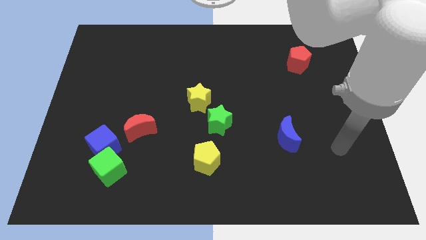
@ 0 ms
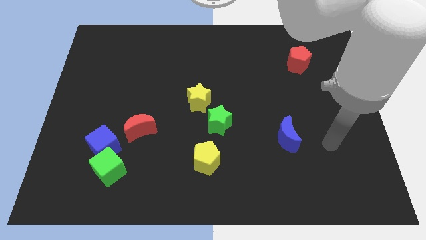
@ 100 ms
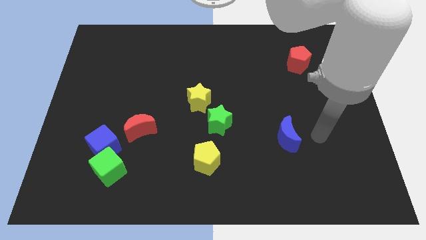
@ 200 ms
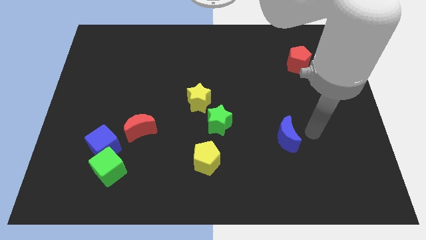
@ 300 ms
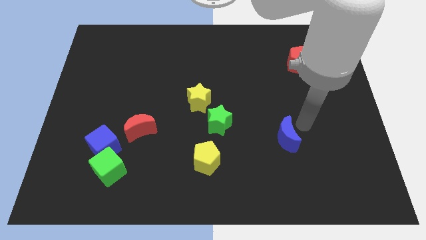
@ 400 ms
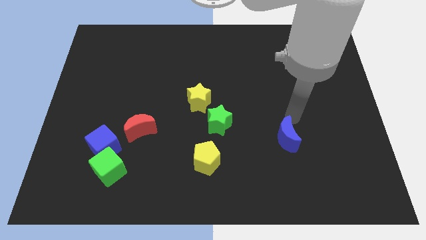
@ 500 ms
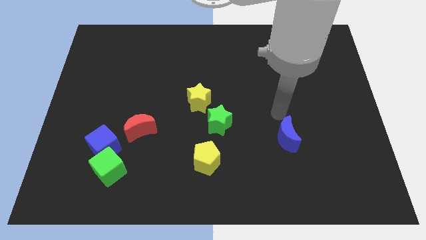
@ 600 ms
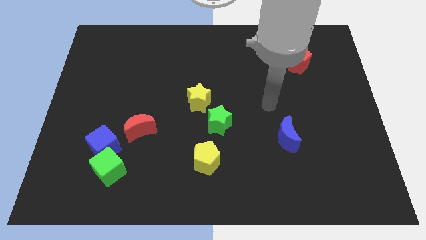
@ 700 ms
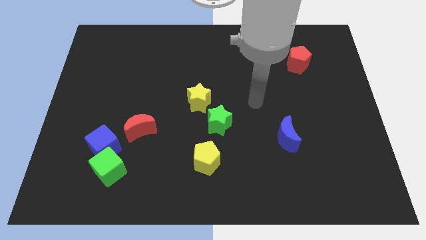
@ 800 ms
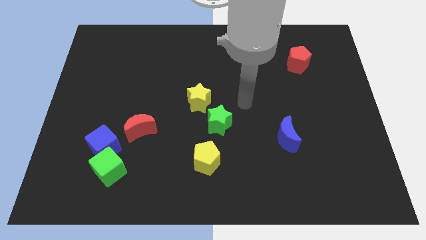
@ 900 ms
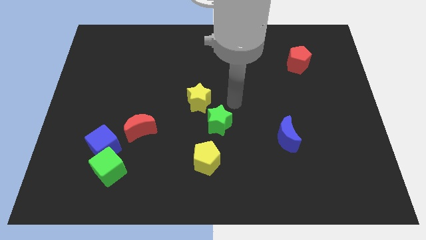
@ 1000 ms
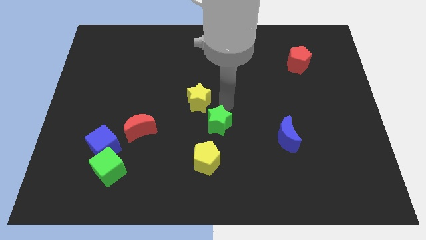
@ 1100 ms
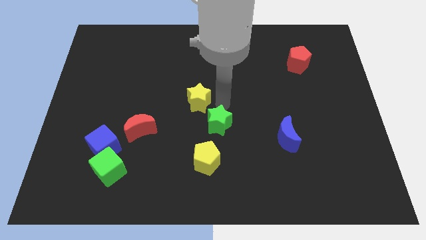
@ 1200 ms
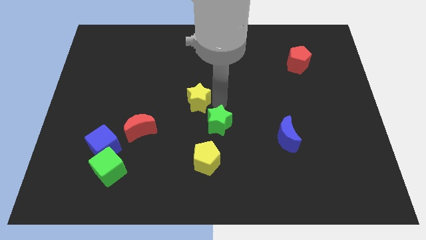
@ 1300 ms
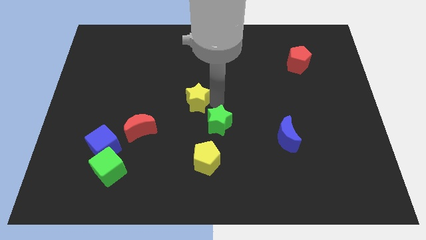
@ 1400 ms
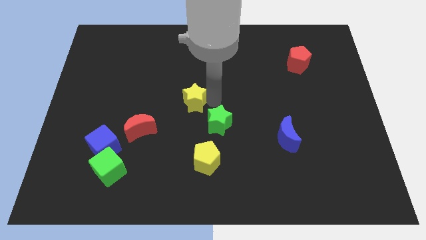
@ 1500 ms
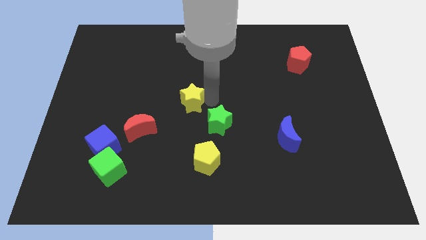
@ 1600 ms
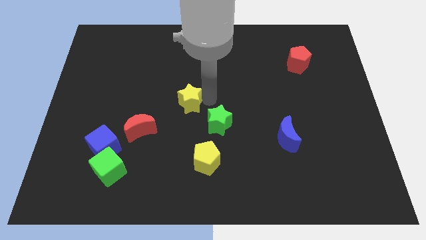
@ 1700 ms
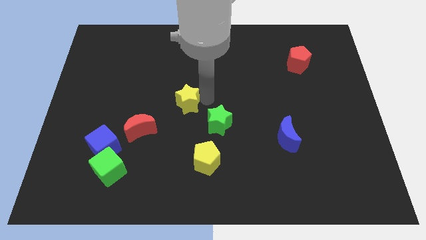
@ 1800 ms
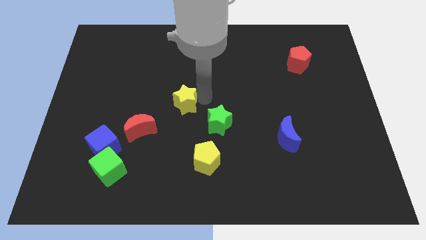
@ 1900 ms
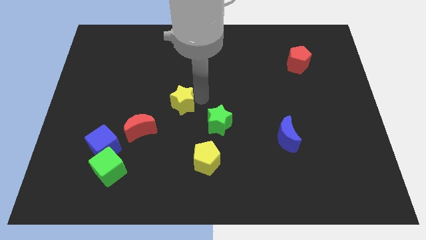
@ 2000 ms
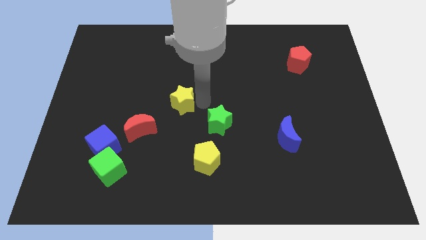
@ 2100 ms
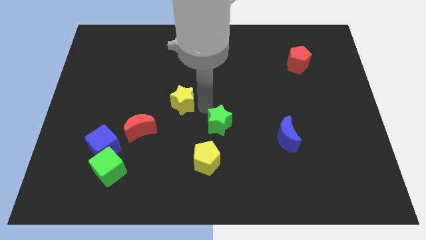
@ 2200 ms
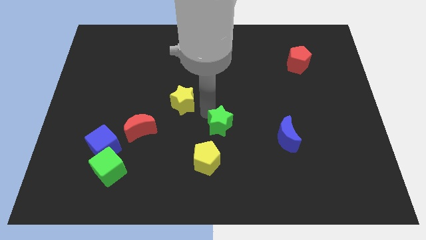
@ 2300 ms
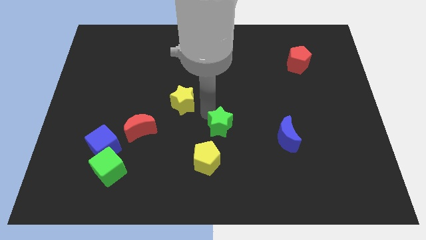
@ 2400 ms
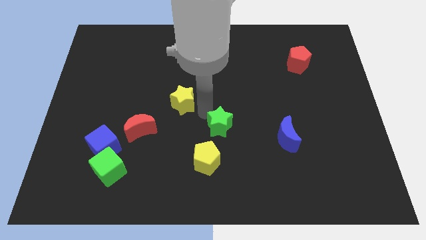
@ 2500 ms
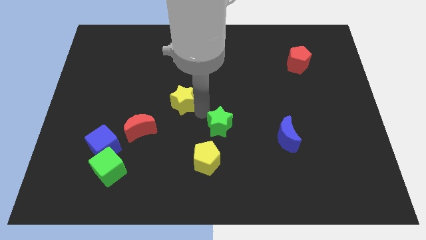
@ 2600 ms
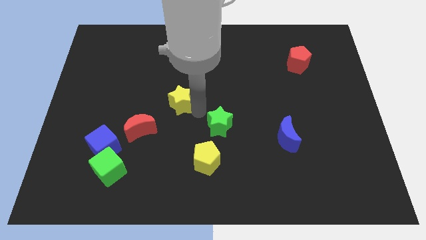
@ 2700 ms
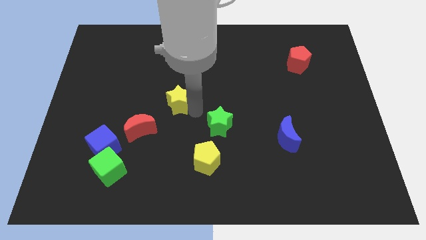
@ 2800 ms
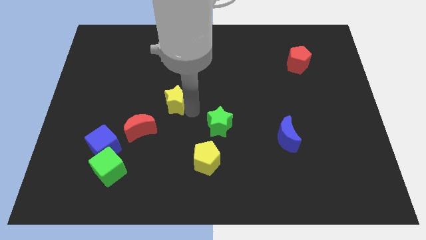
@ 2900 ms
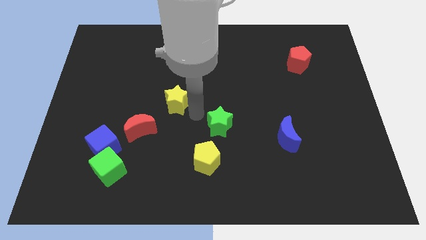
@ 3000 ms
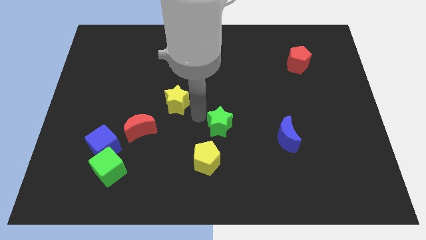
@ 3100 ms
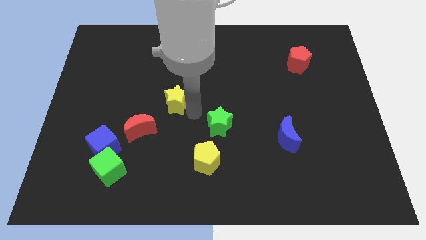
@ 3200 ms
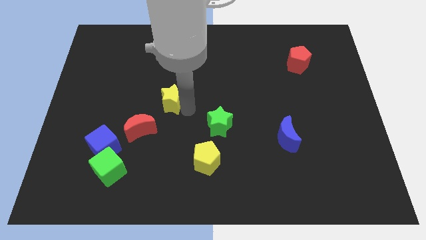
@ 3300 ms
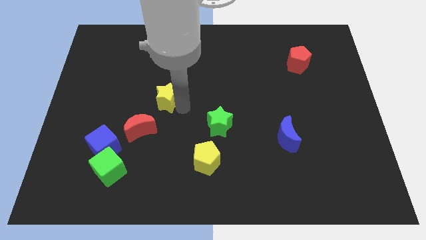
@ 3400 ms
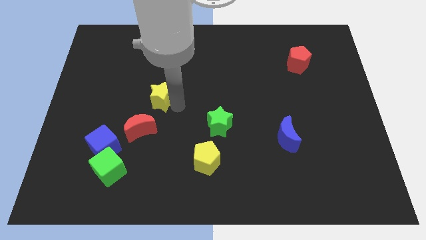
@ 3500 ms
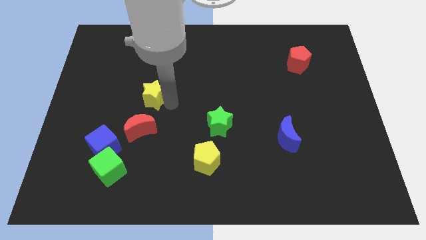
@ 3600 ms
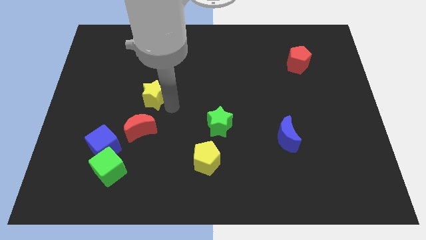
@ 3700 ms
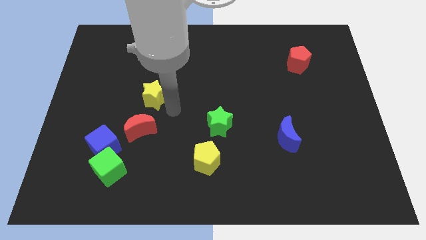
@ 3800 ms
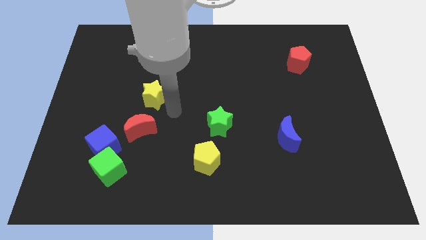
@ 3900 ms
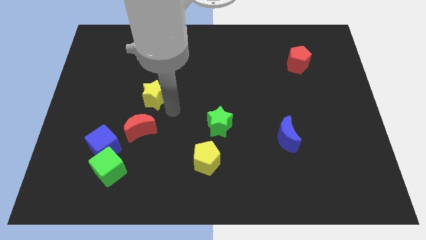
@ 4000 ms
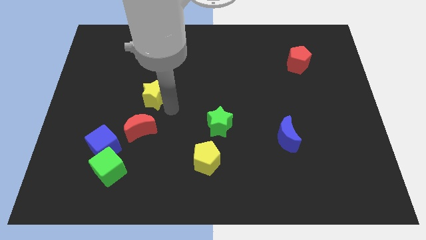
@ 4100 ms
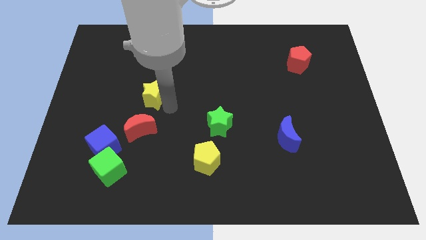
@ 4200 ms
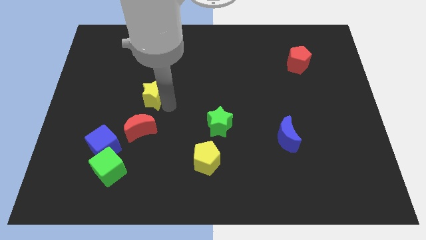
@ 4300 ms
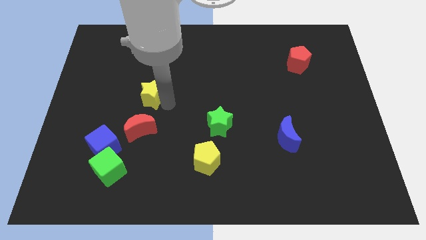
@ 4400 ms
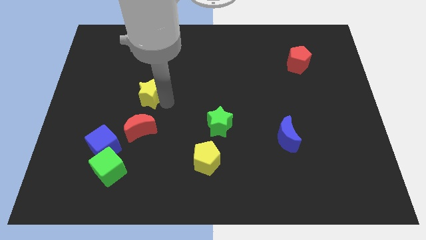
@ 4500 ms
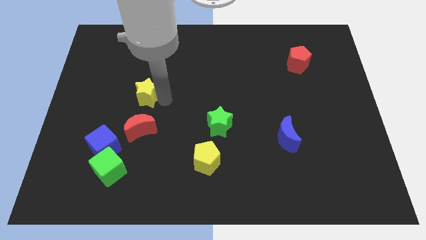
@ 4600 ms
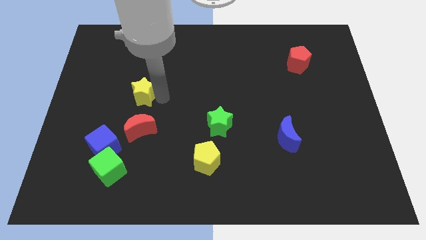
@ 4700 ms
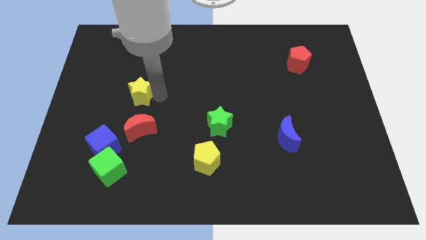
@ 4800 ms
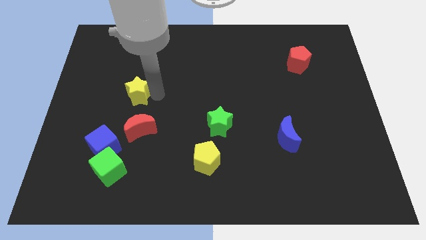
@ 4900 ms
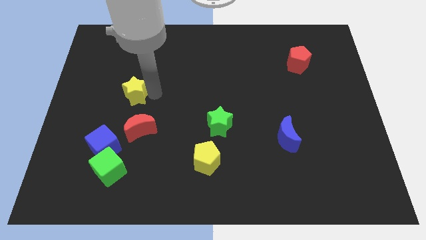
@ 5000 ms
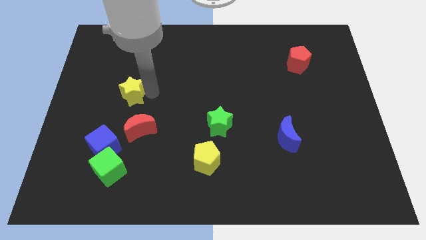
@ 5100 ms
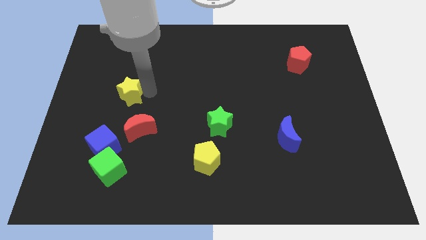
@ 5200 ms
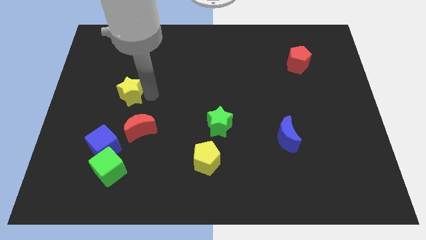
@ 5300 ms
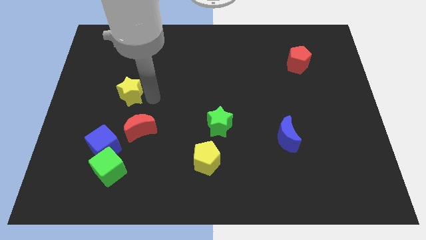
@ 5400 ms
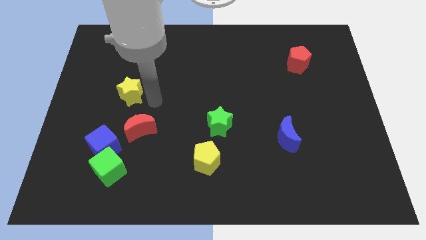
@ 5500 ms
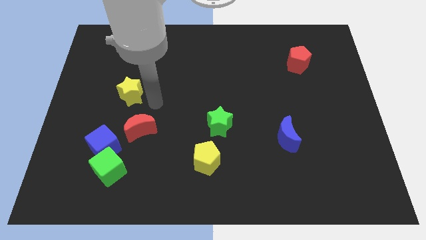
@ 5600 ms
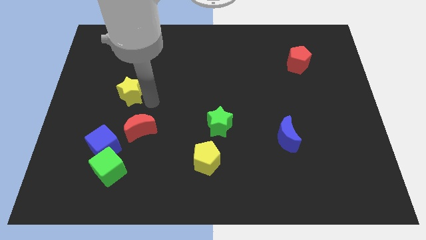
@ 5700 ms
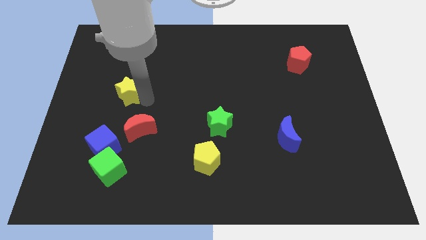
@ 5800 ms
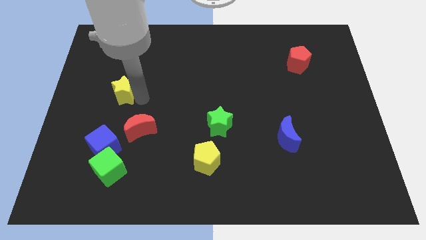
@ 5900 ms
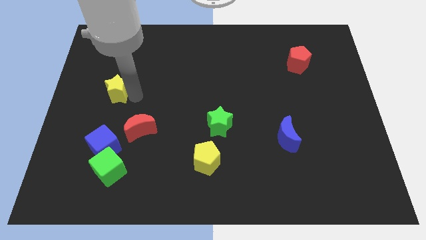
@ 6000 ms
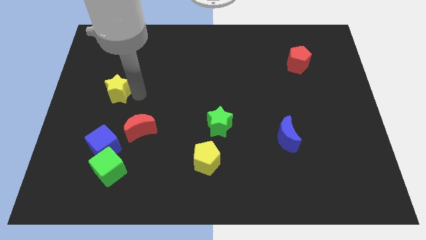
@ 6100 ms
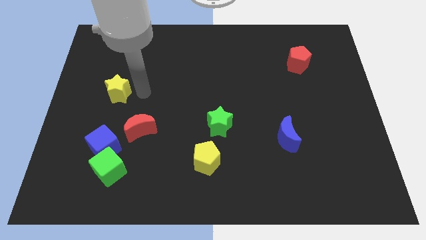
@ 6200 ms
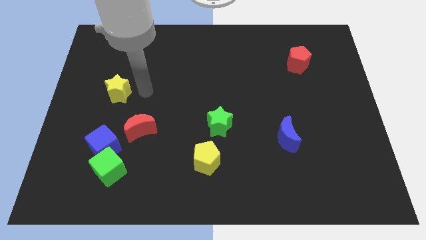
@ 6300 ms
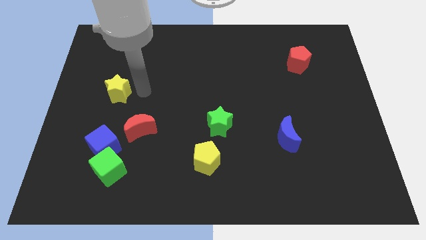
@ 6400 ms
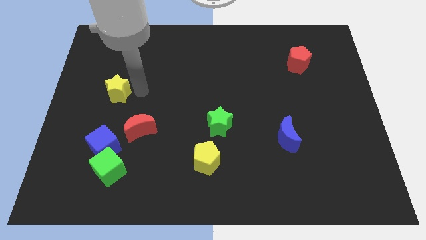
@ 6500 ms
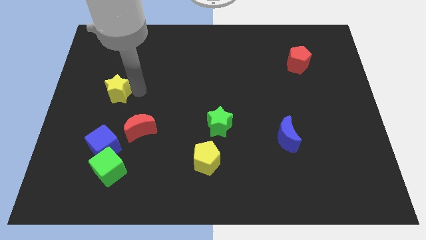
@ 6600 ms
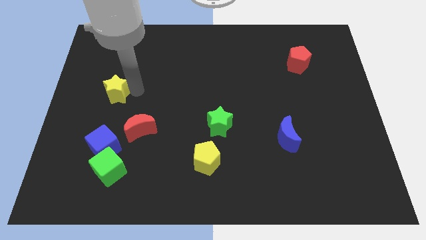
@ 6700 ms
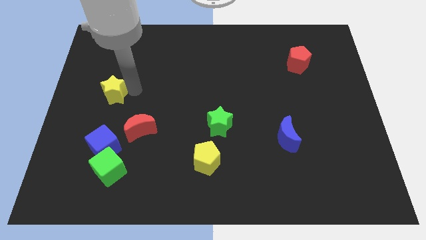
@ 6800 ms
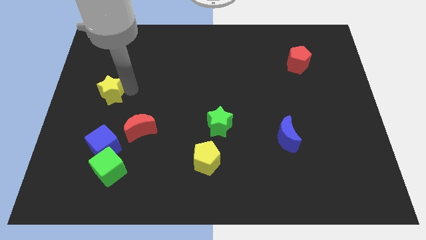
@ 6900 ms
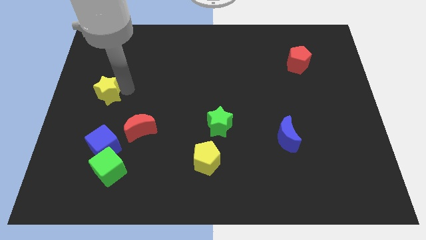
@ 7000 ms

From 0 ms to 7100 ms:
put the yellow star to the center left
